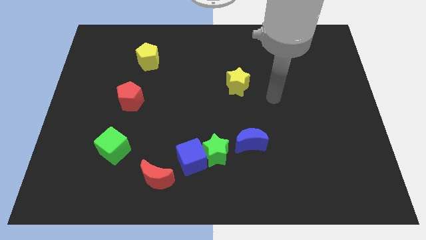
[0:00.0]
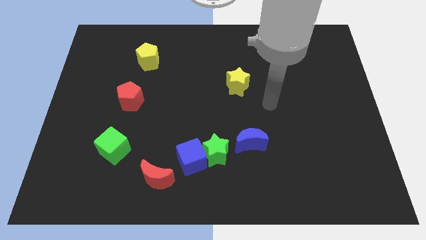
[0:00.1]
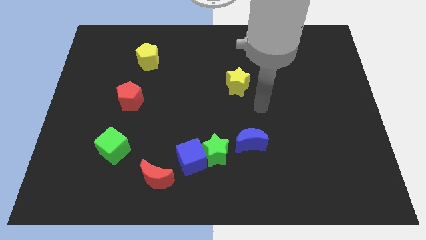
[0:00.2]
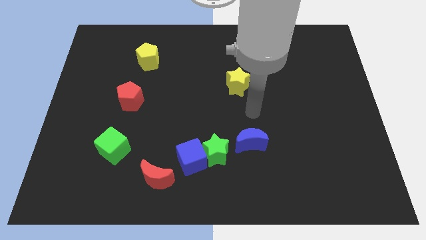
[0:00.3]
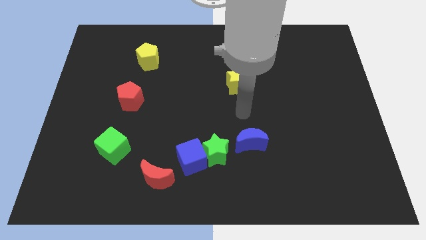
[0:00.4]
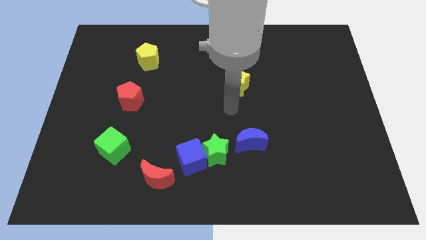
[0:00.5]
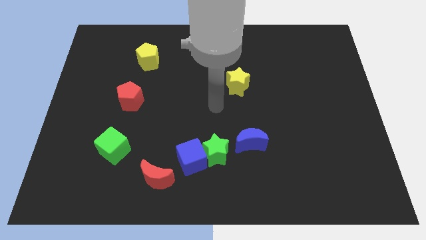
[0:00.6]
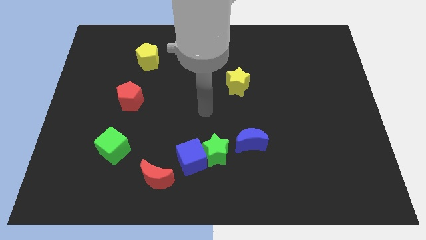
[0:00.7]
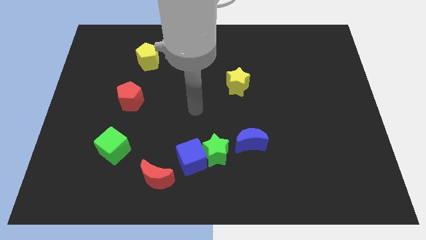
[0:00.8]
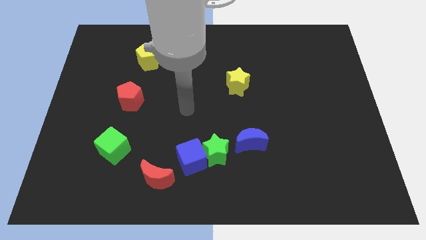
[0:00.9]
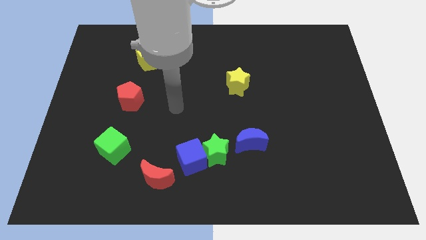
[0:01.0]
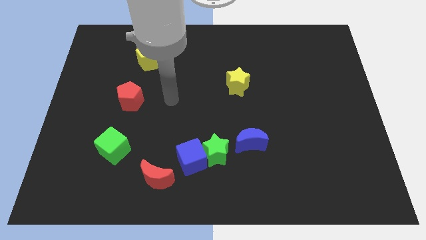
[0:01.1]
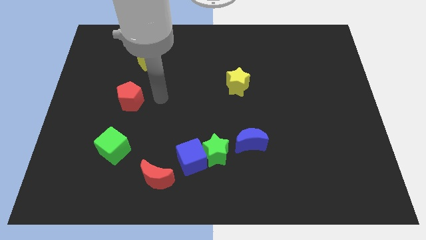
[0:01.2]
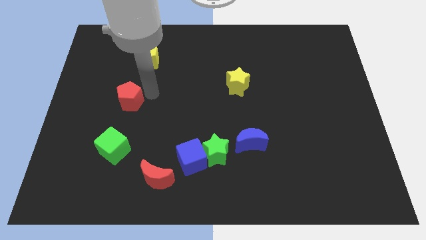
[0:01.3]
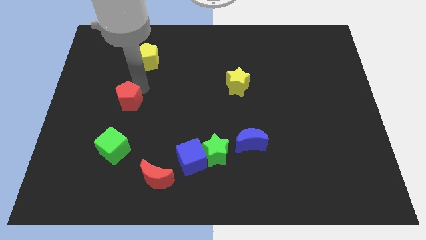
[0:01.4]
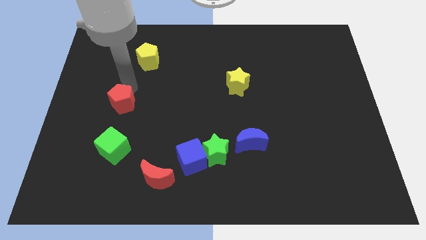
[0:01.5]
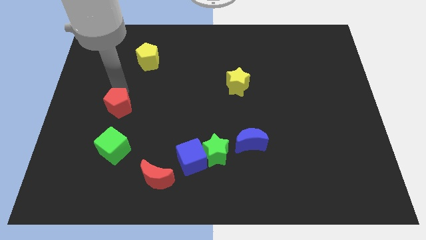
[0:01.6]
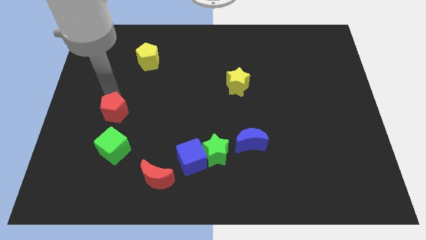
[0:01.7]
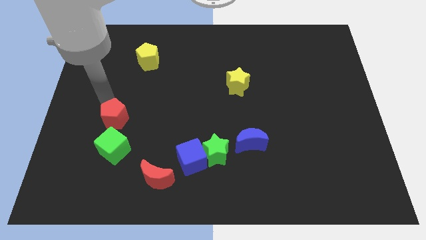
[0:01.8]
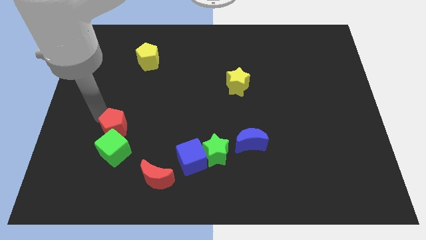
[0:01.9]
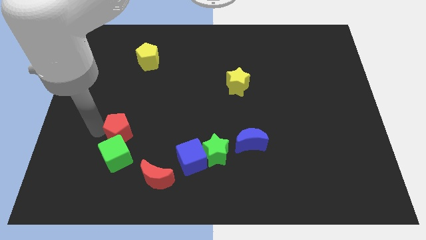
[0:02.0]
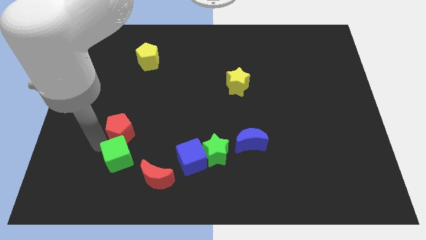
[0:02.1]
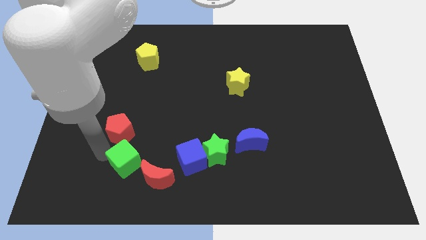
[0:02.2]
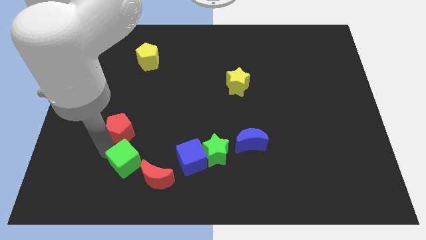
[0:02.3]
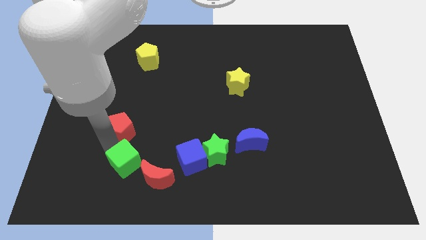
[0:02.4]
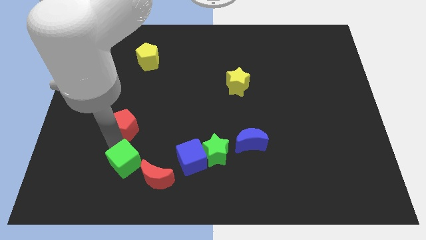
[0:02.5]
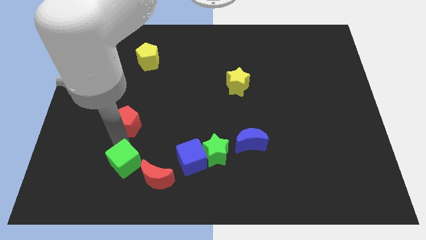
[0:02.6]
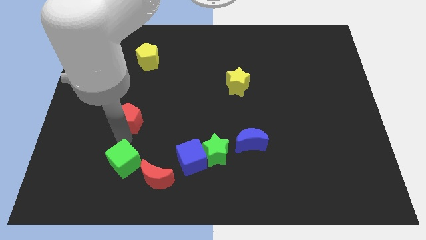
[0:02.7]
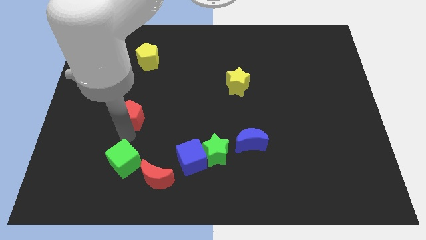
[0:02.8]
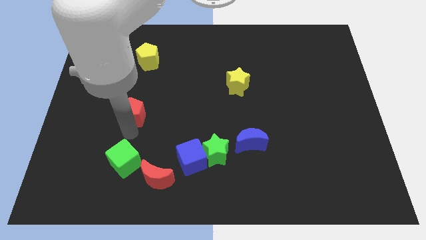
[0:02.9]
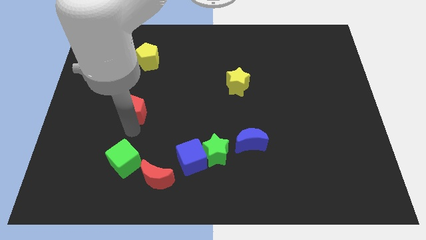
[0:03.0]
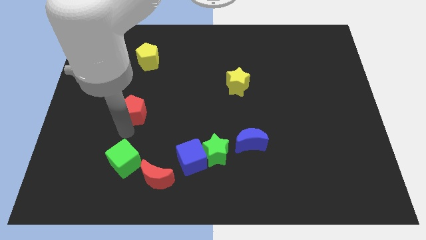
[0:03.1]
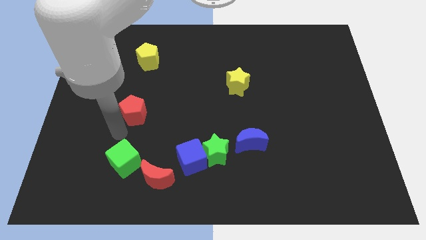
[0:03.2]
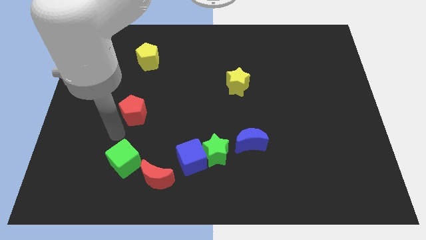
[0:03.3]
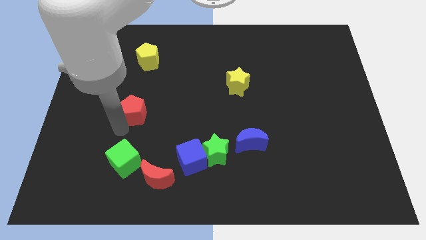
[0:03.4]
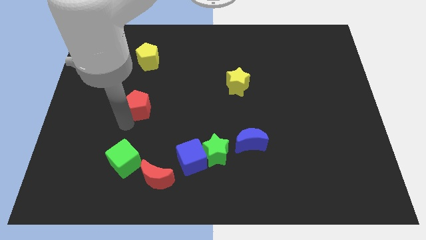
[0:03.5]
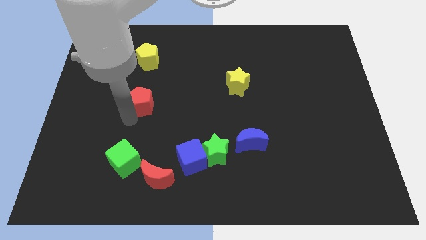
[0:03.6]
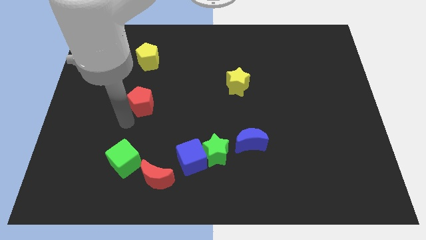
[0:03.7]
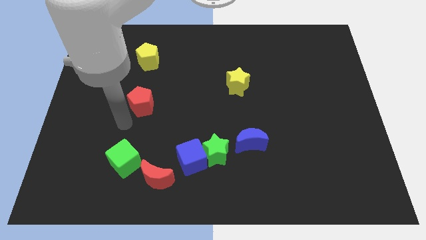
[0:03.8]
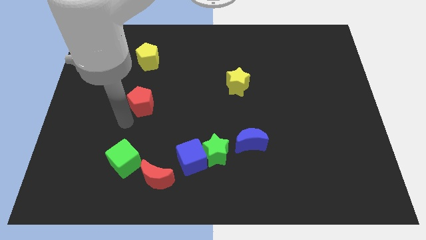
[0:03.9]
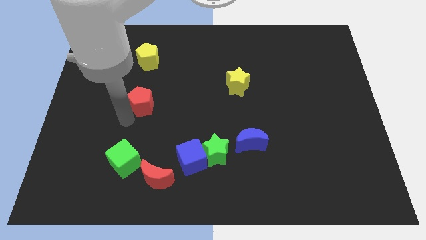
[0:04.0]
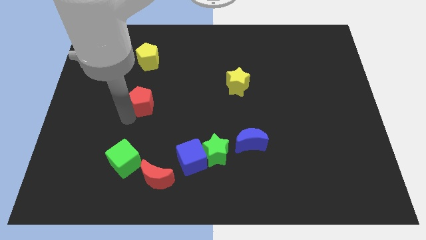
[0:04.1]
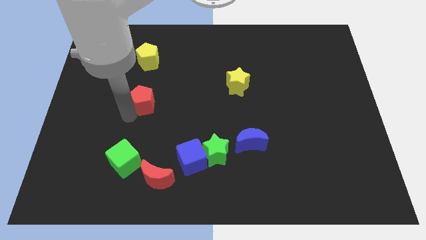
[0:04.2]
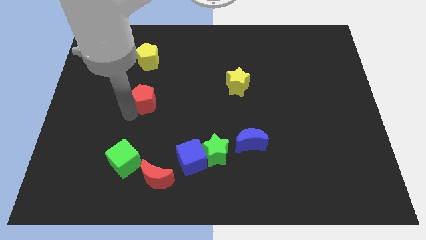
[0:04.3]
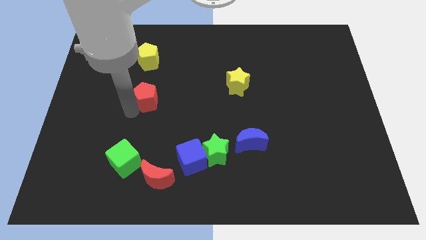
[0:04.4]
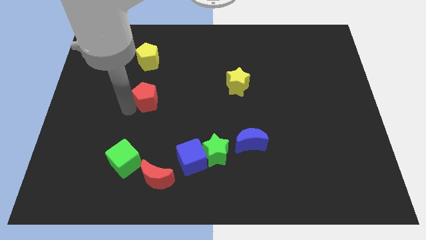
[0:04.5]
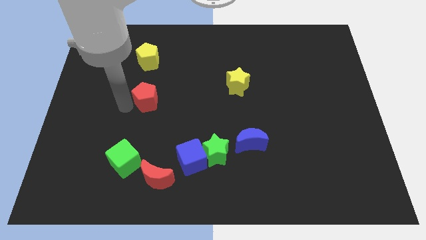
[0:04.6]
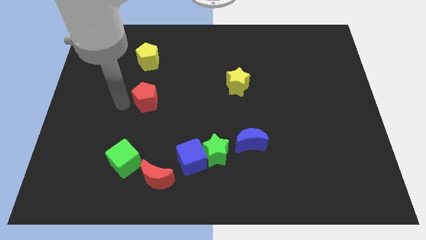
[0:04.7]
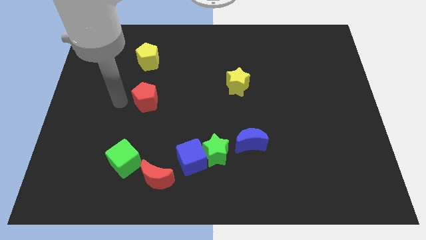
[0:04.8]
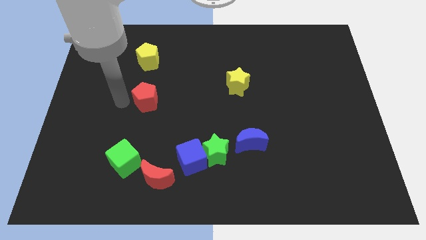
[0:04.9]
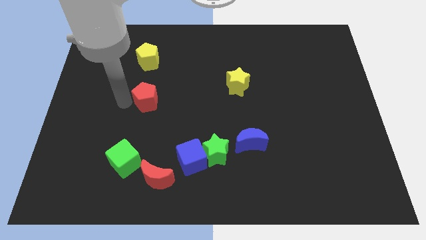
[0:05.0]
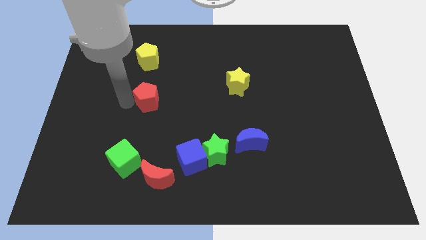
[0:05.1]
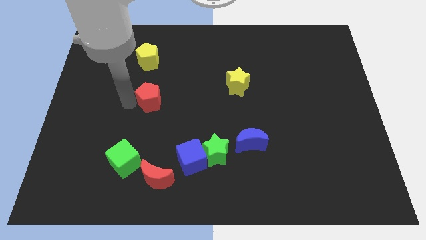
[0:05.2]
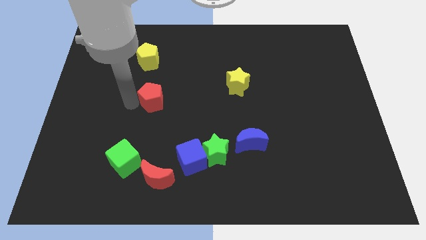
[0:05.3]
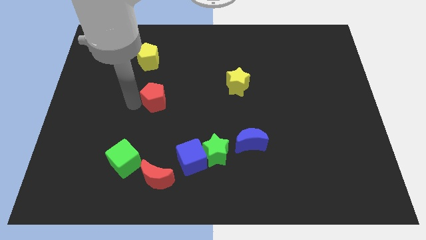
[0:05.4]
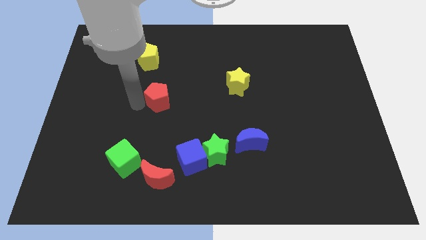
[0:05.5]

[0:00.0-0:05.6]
push the red pentagon a bit to the right

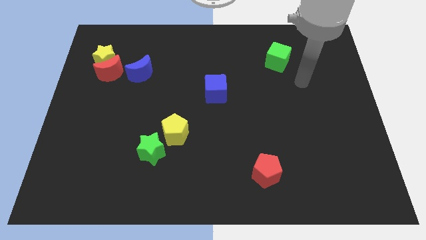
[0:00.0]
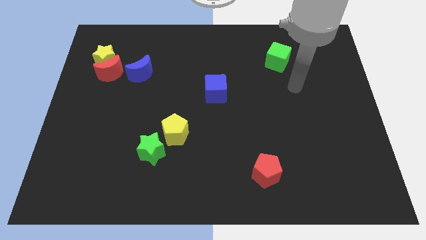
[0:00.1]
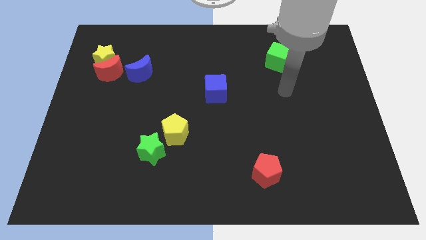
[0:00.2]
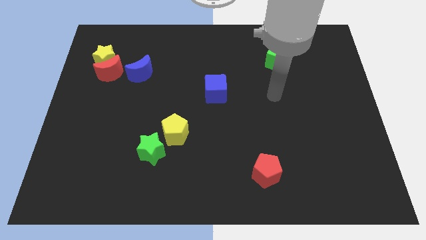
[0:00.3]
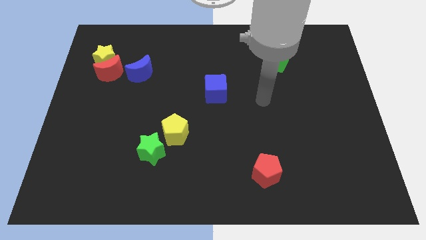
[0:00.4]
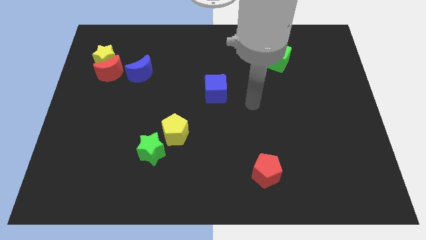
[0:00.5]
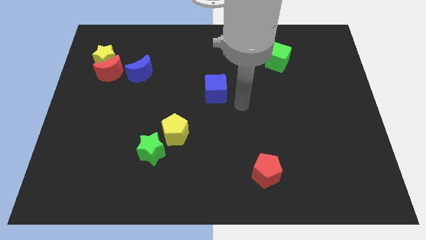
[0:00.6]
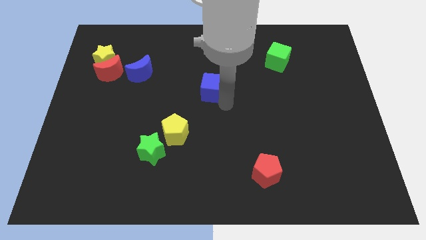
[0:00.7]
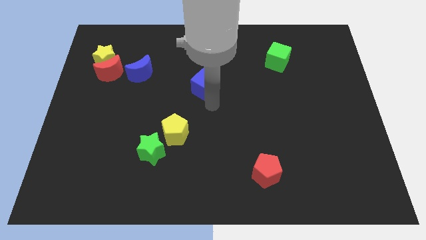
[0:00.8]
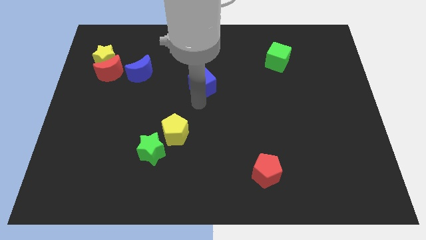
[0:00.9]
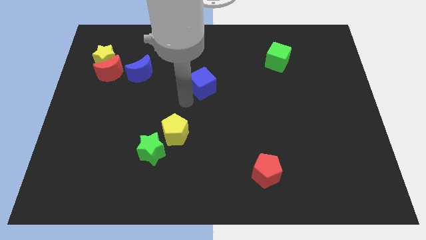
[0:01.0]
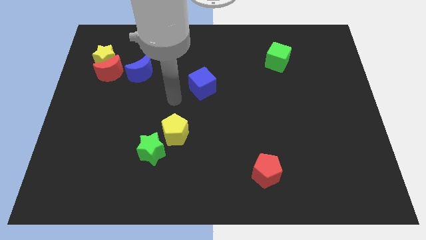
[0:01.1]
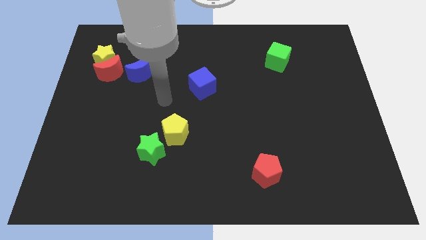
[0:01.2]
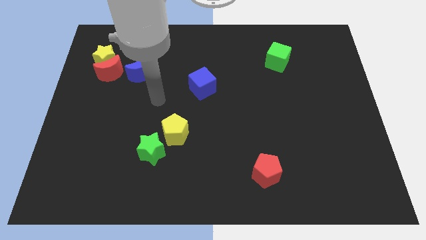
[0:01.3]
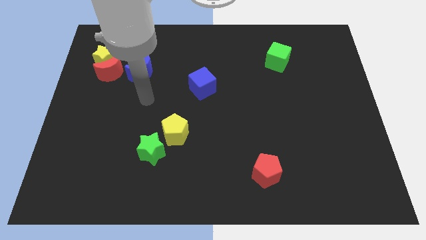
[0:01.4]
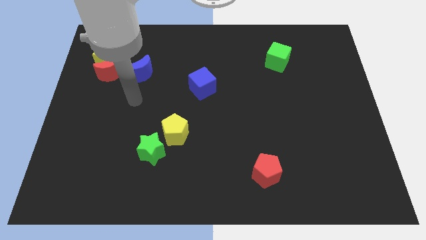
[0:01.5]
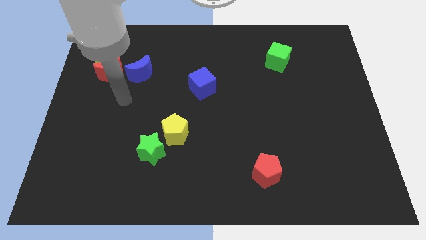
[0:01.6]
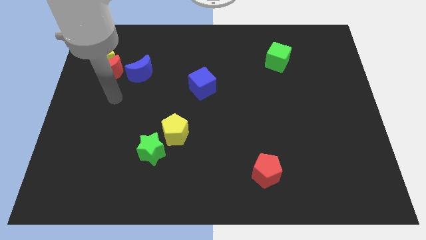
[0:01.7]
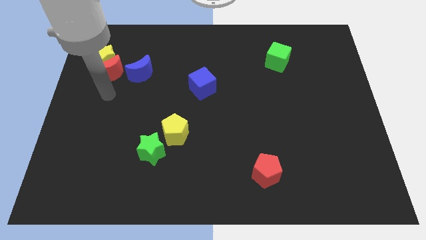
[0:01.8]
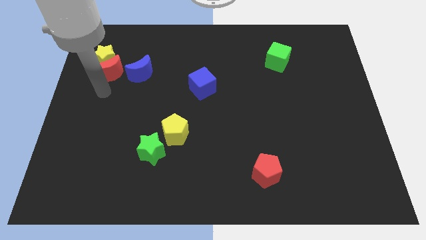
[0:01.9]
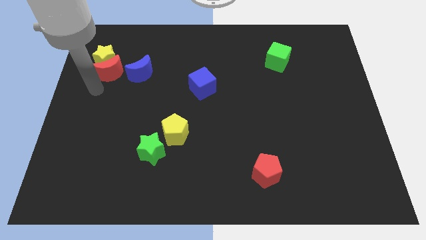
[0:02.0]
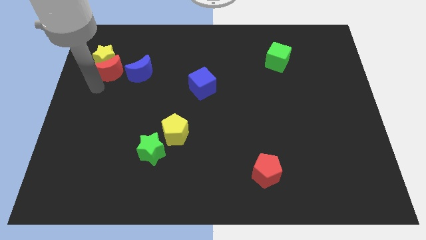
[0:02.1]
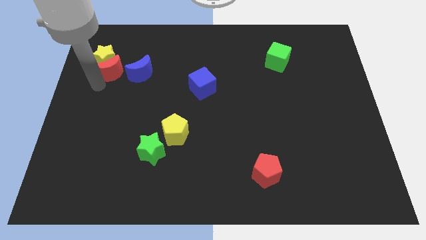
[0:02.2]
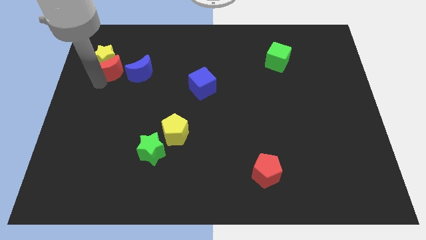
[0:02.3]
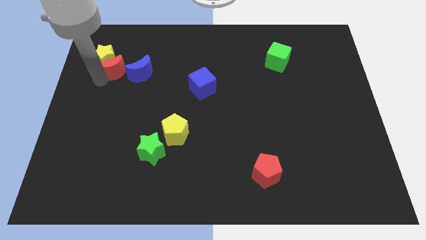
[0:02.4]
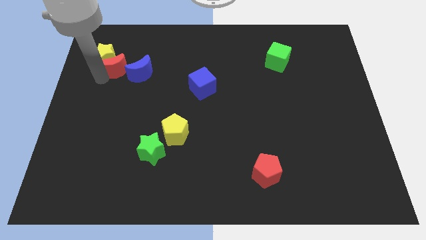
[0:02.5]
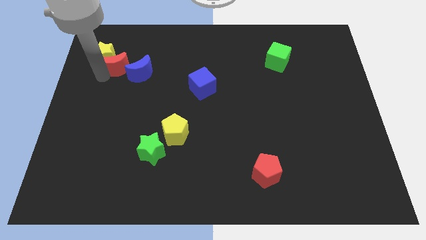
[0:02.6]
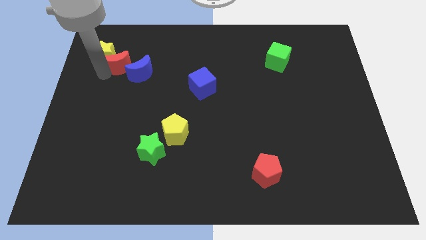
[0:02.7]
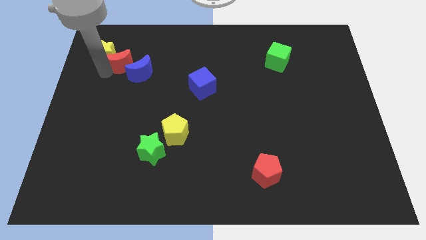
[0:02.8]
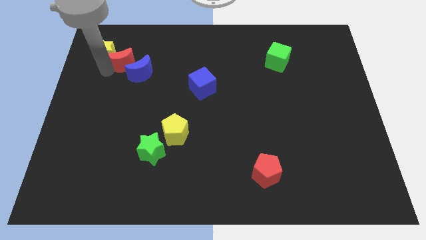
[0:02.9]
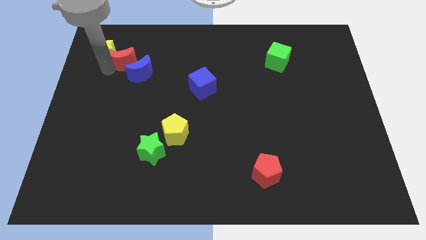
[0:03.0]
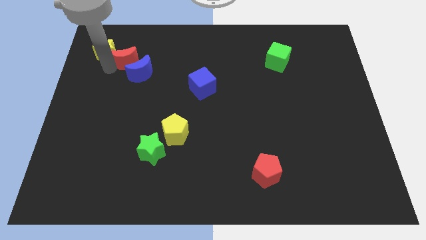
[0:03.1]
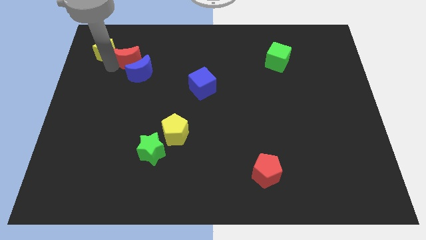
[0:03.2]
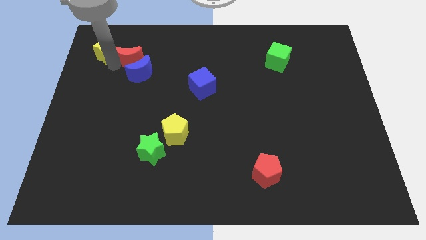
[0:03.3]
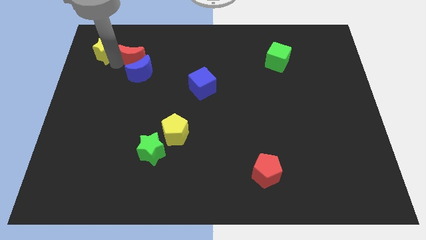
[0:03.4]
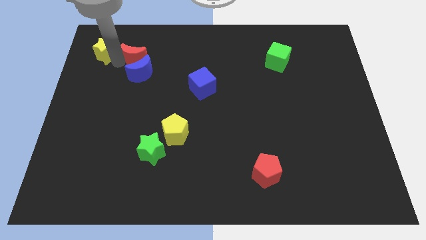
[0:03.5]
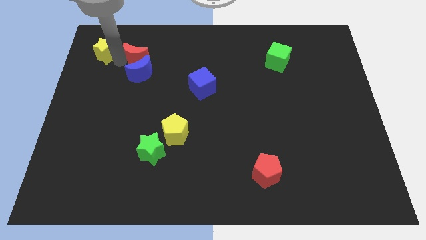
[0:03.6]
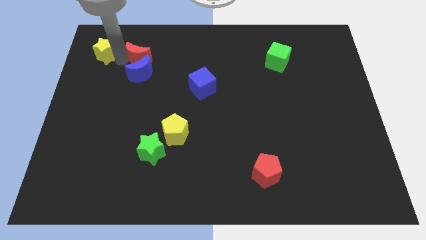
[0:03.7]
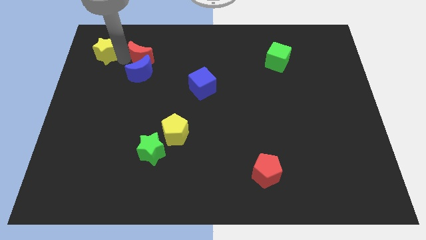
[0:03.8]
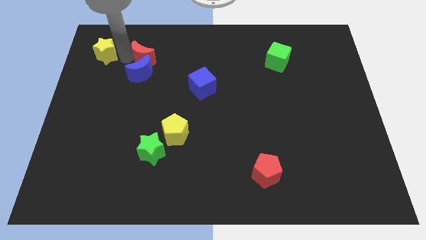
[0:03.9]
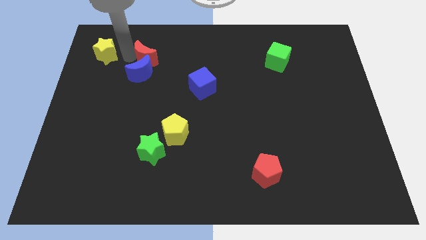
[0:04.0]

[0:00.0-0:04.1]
slightly push the red moon right
